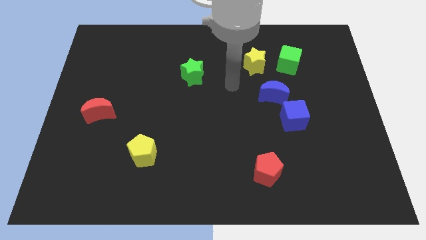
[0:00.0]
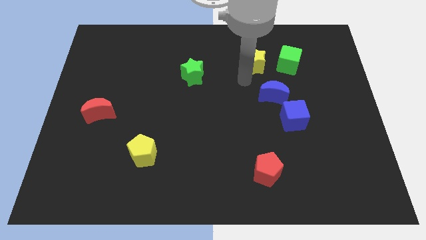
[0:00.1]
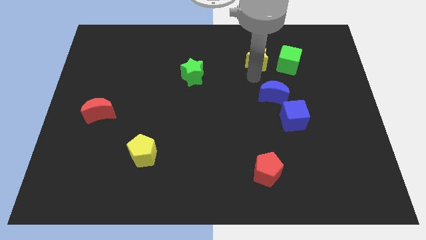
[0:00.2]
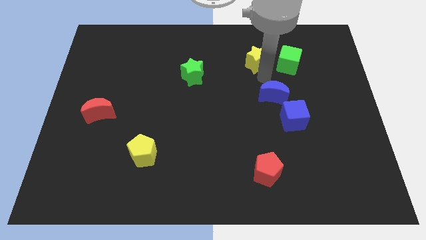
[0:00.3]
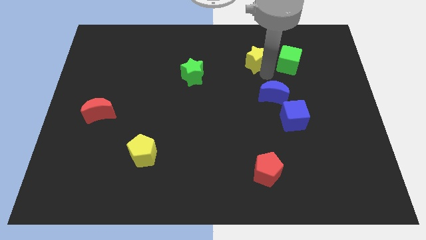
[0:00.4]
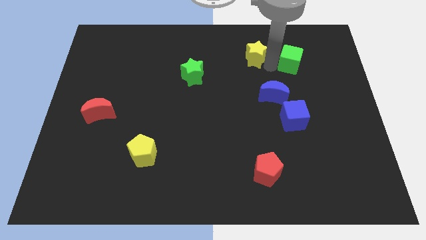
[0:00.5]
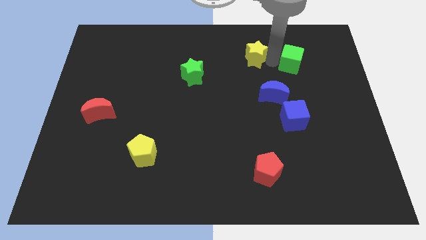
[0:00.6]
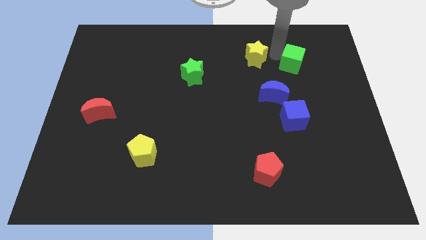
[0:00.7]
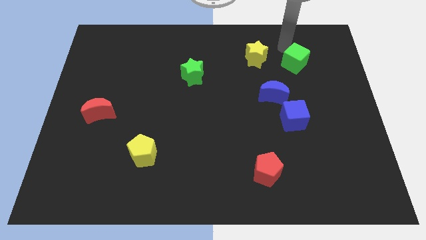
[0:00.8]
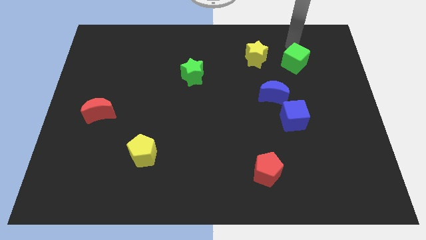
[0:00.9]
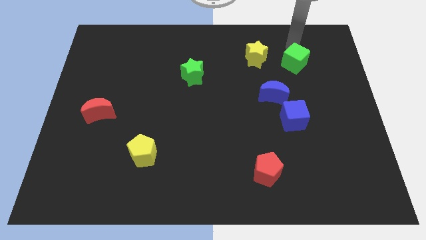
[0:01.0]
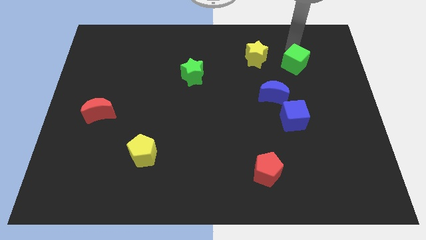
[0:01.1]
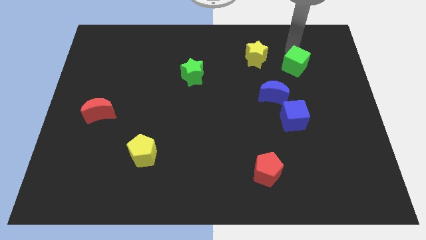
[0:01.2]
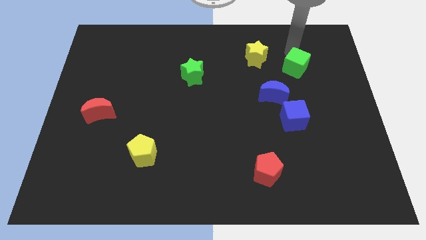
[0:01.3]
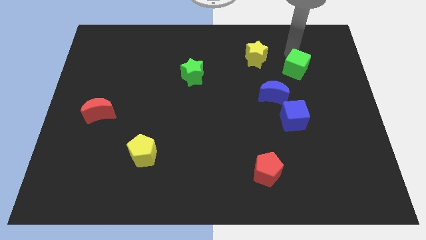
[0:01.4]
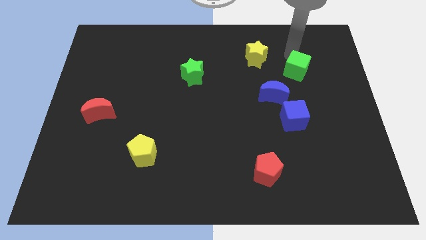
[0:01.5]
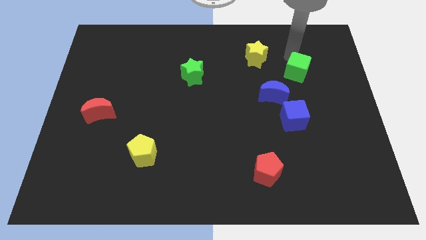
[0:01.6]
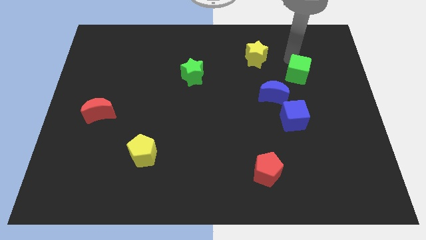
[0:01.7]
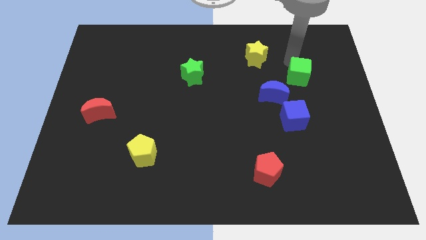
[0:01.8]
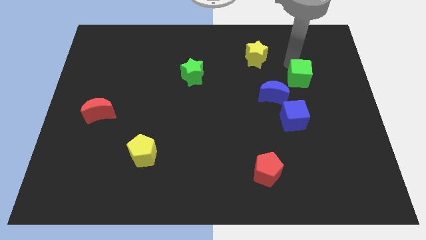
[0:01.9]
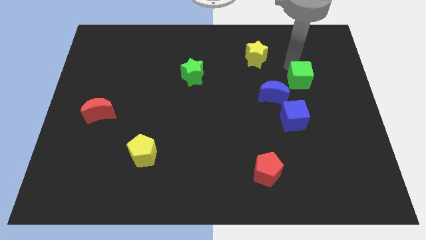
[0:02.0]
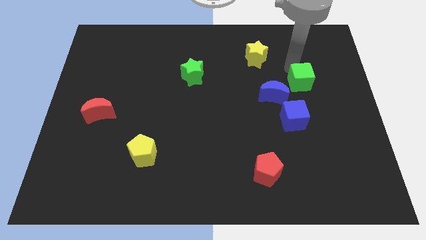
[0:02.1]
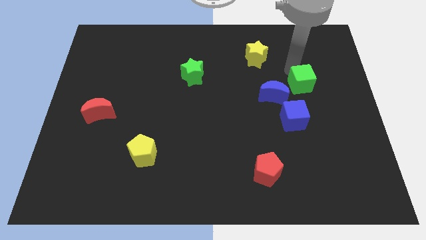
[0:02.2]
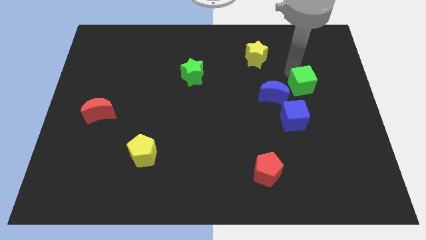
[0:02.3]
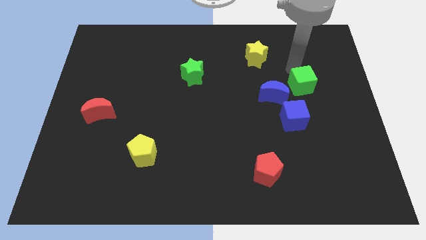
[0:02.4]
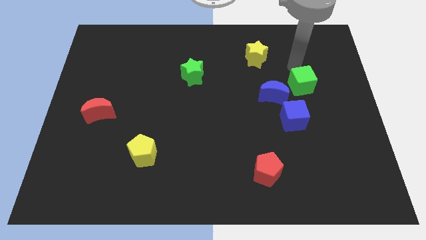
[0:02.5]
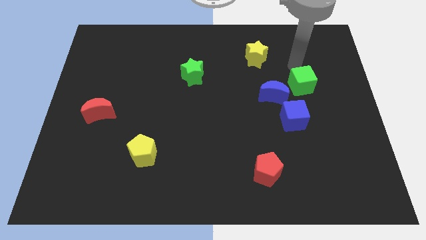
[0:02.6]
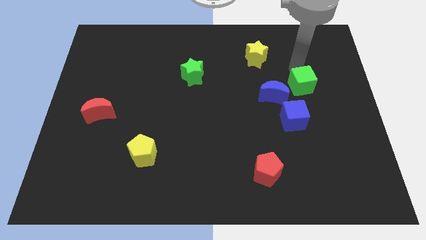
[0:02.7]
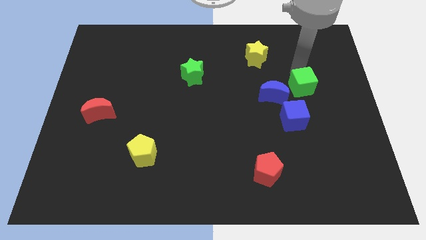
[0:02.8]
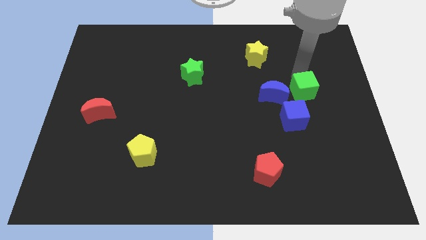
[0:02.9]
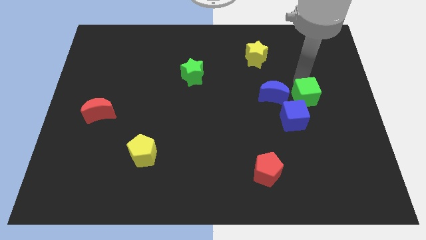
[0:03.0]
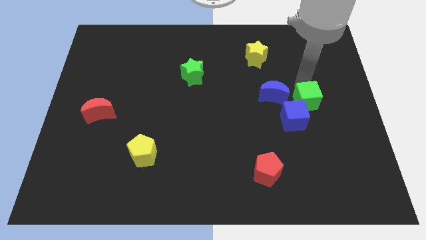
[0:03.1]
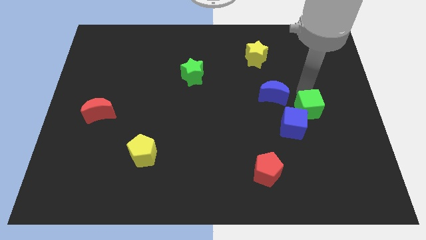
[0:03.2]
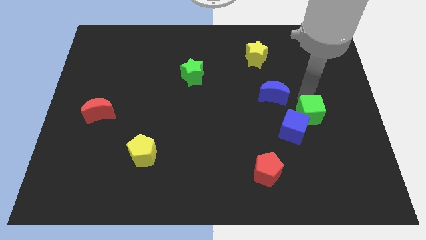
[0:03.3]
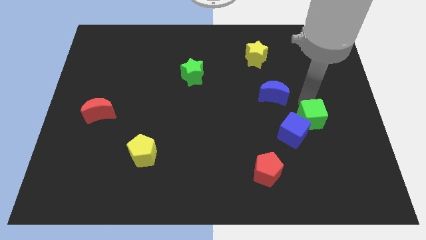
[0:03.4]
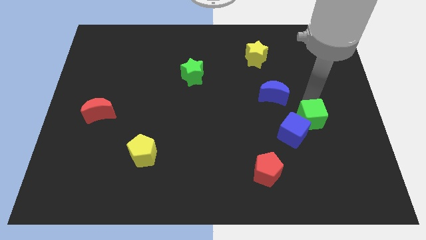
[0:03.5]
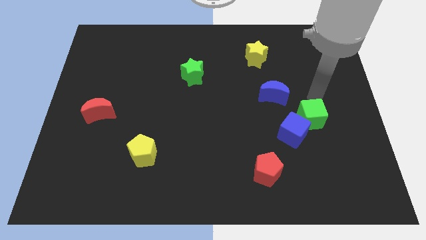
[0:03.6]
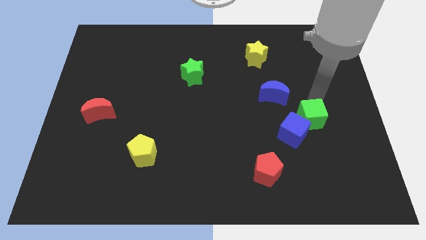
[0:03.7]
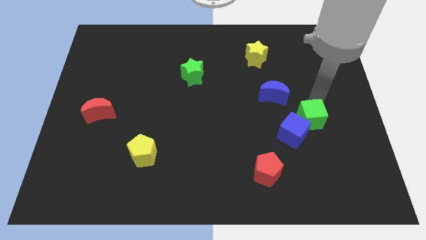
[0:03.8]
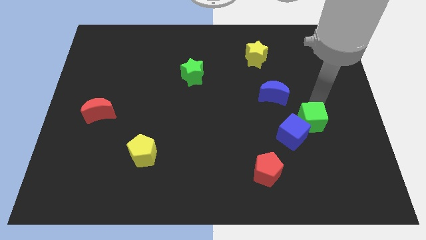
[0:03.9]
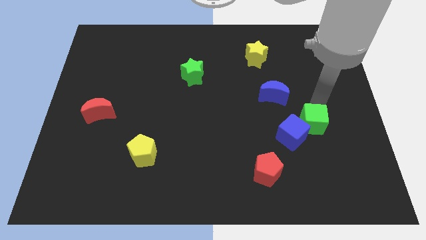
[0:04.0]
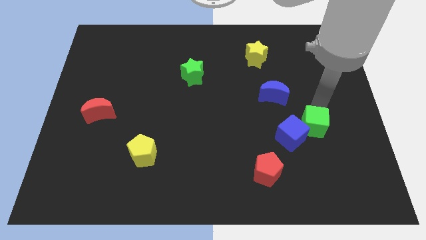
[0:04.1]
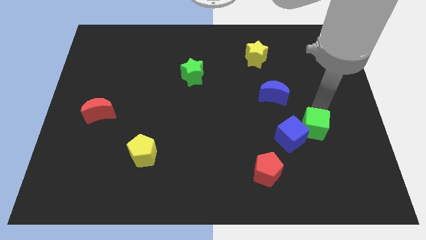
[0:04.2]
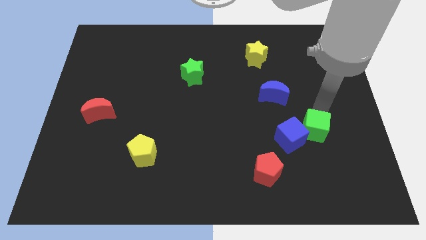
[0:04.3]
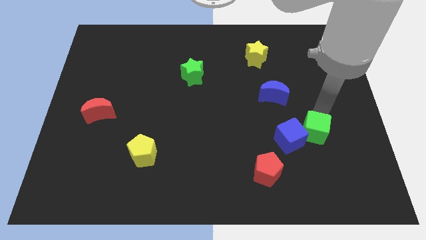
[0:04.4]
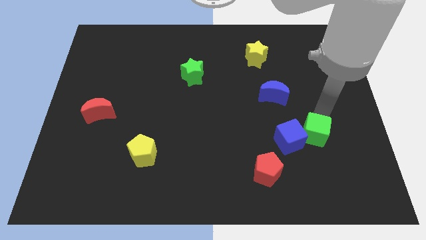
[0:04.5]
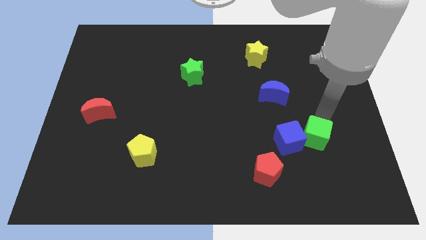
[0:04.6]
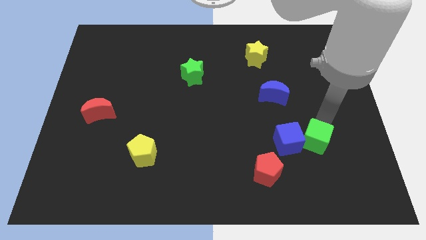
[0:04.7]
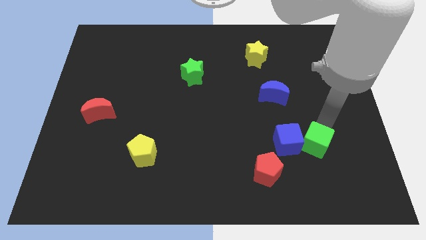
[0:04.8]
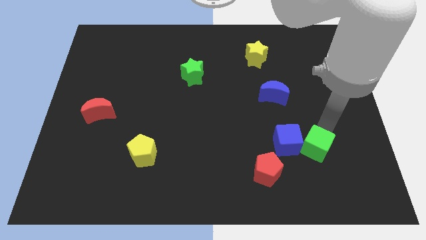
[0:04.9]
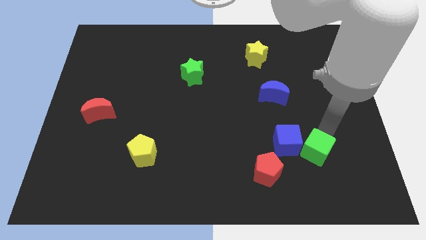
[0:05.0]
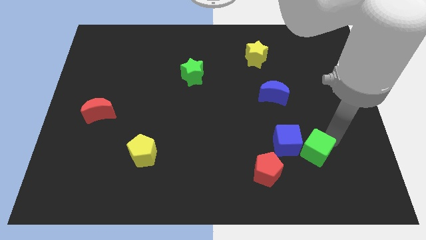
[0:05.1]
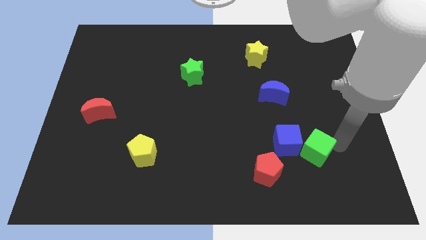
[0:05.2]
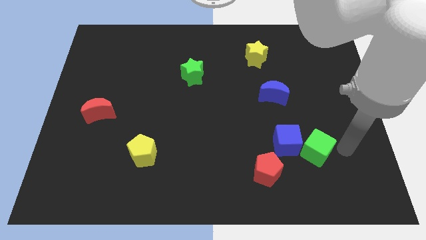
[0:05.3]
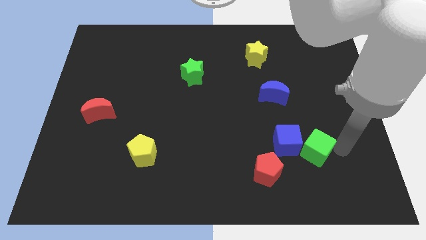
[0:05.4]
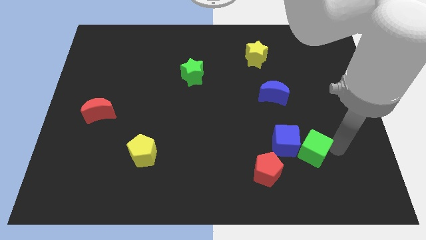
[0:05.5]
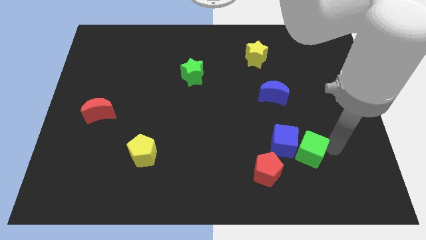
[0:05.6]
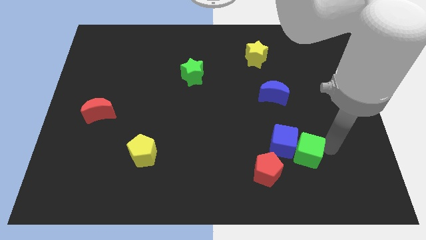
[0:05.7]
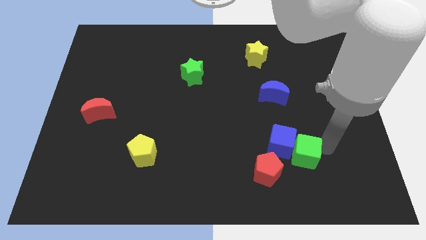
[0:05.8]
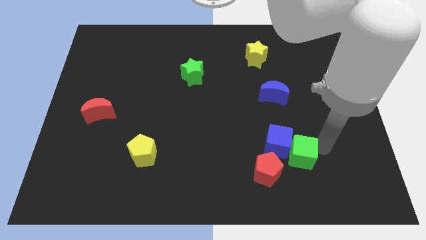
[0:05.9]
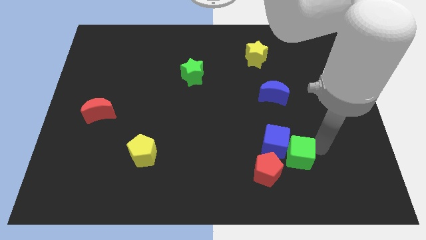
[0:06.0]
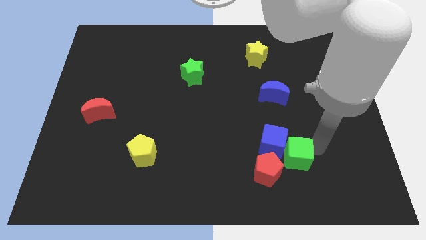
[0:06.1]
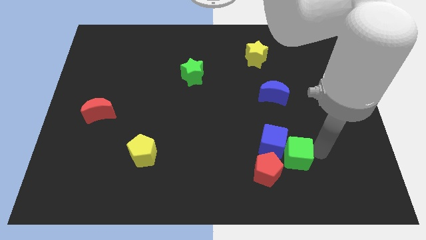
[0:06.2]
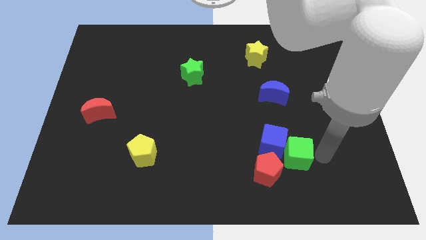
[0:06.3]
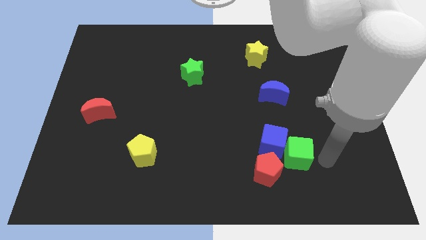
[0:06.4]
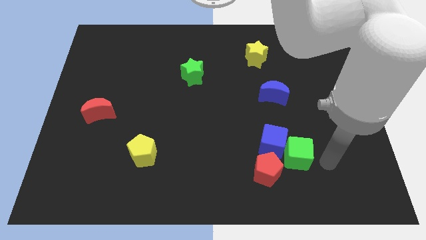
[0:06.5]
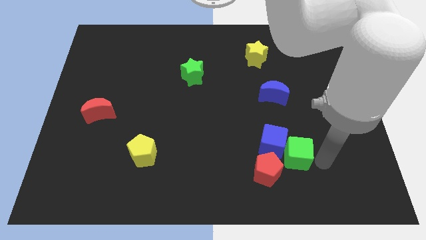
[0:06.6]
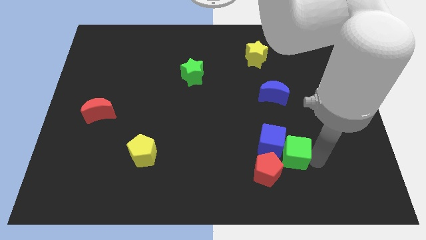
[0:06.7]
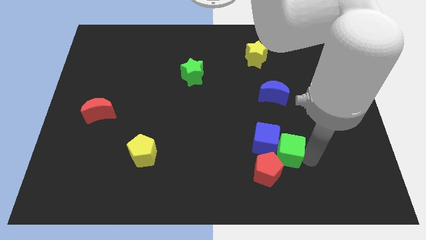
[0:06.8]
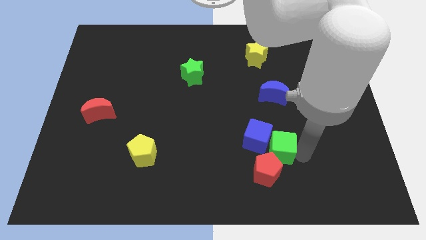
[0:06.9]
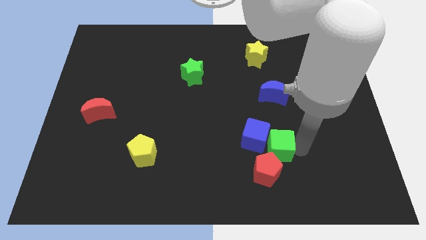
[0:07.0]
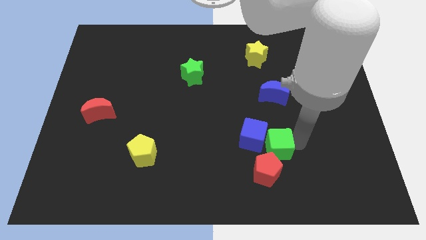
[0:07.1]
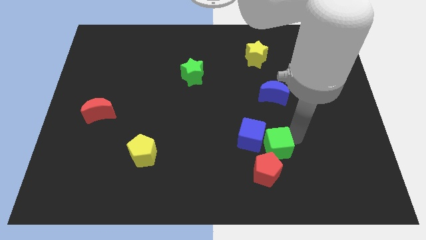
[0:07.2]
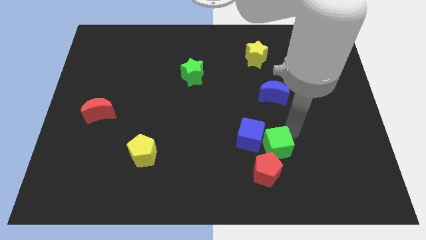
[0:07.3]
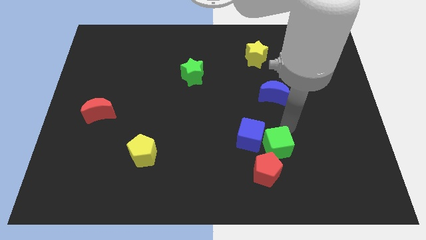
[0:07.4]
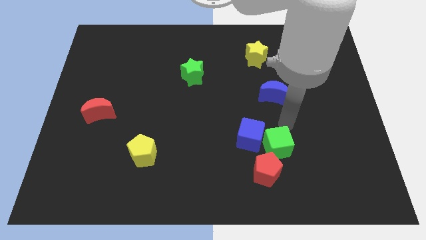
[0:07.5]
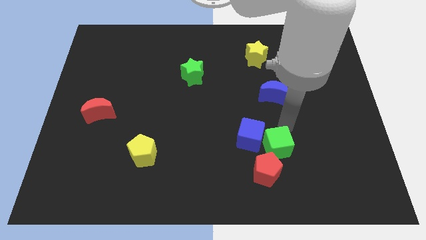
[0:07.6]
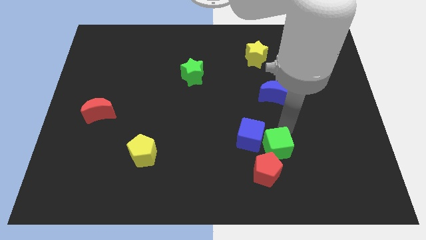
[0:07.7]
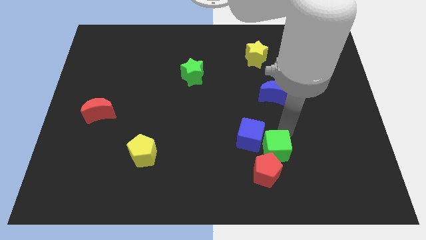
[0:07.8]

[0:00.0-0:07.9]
put the green cube towards the red pentagon
